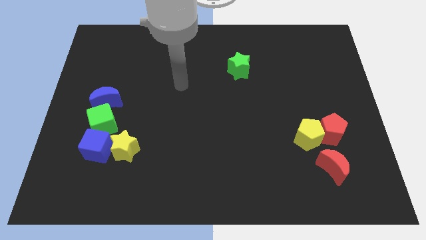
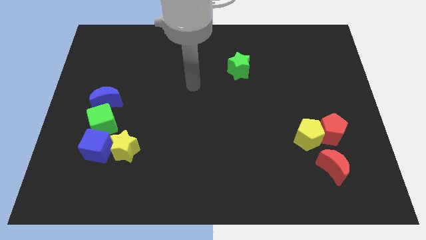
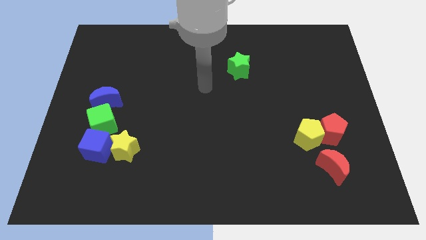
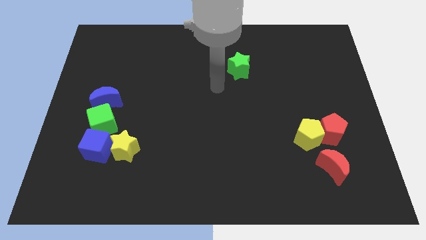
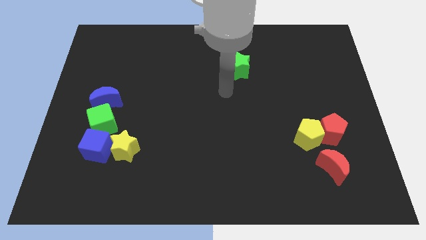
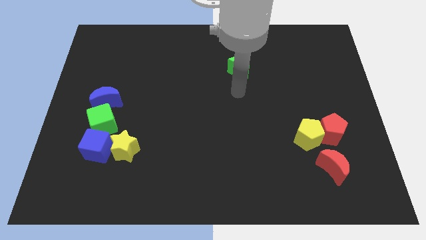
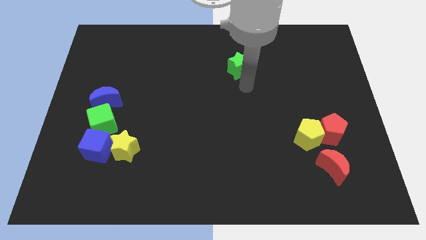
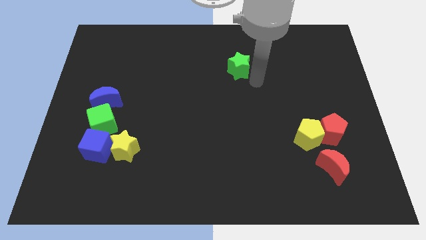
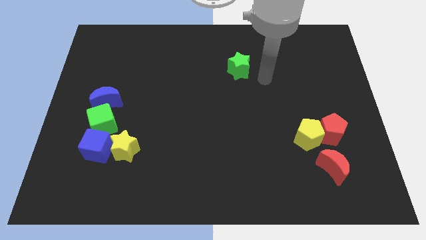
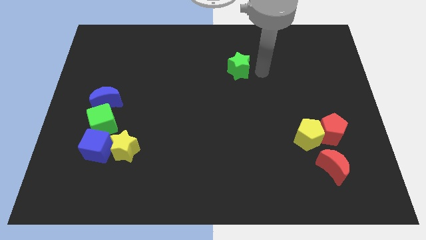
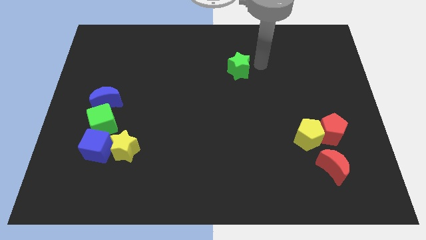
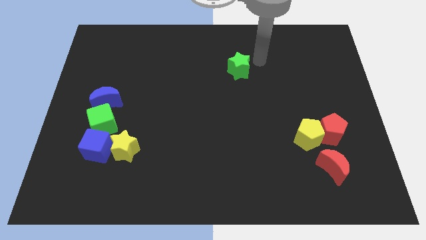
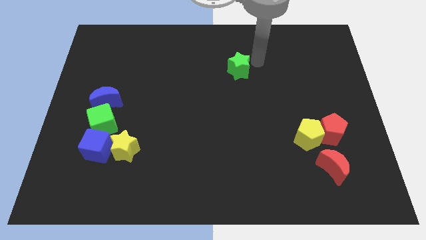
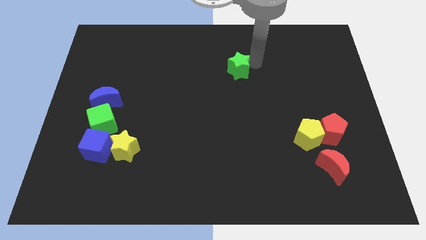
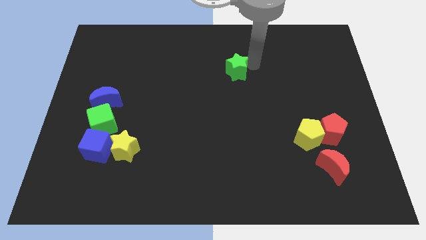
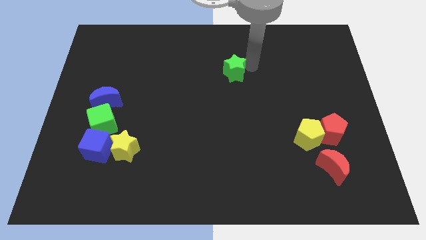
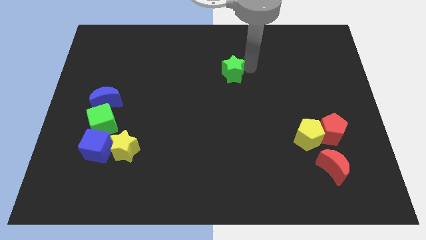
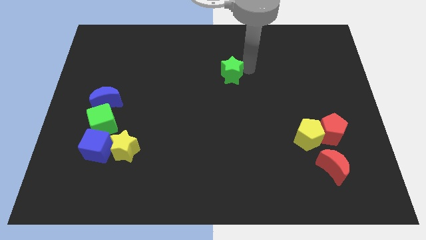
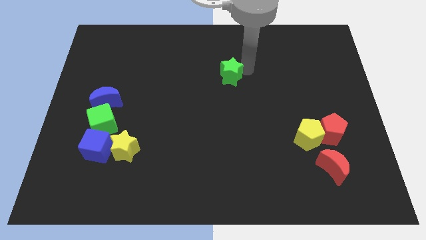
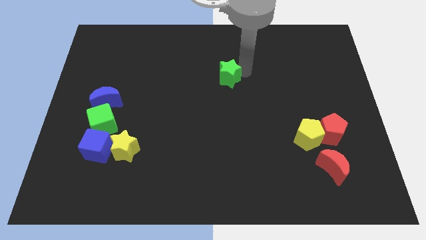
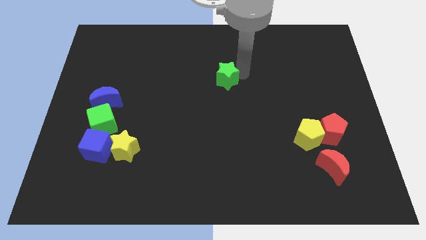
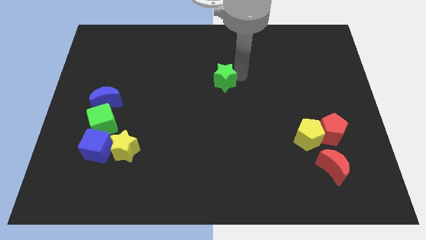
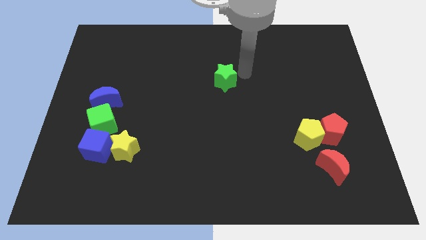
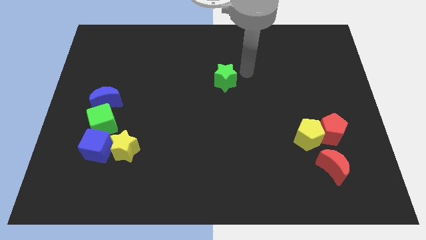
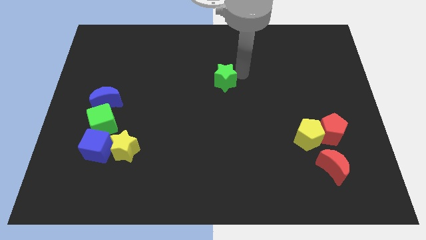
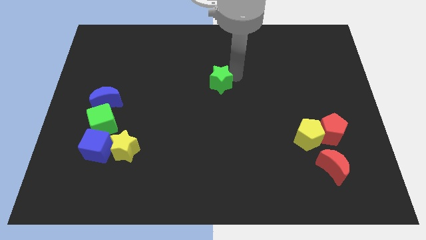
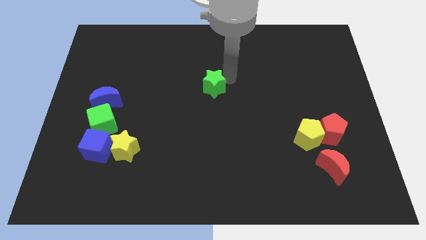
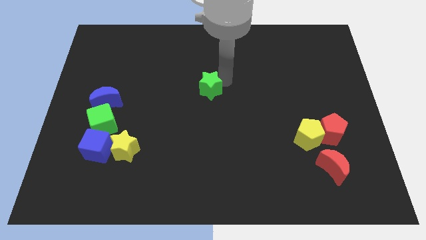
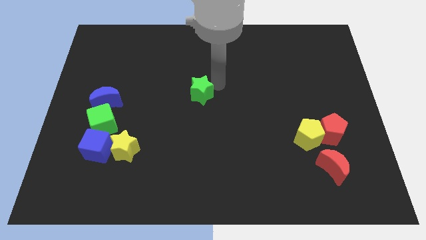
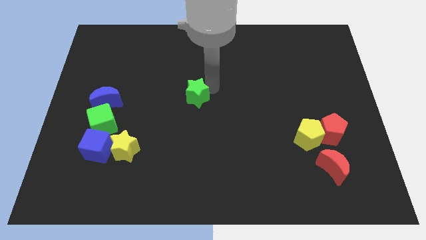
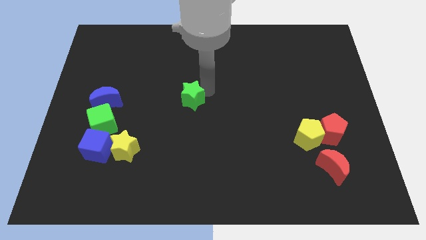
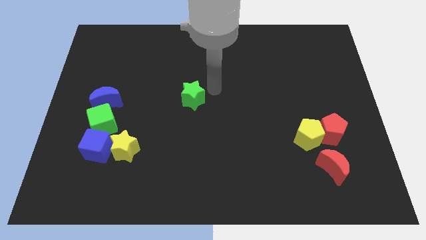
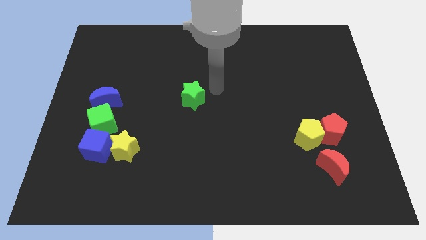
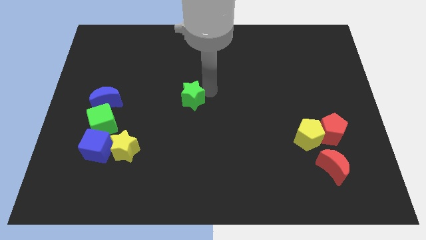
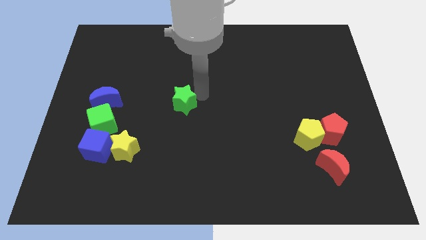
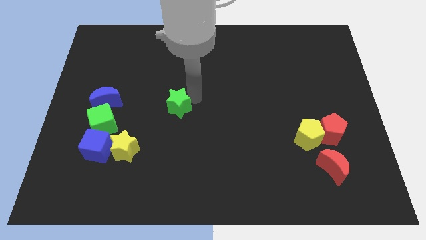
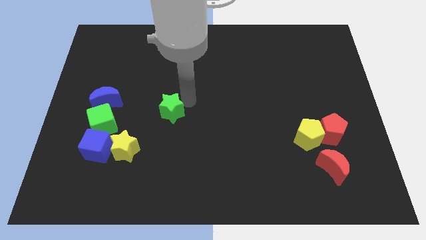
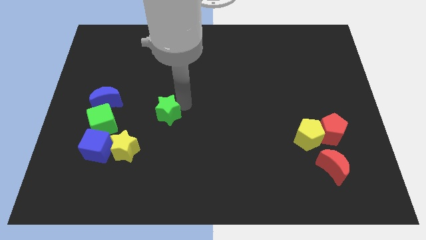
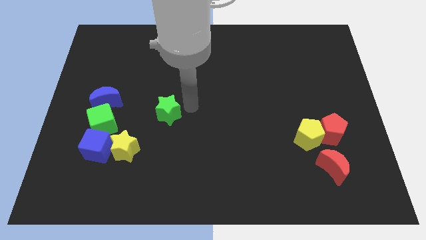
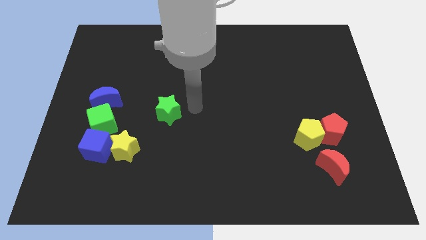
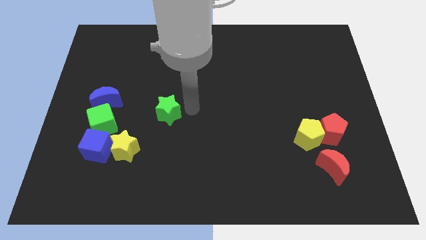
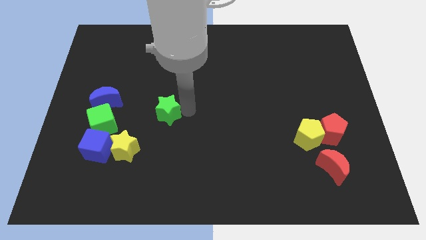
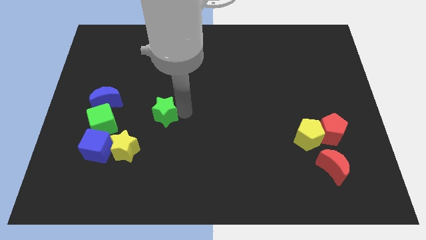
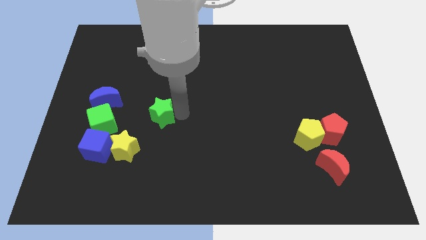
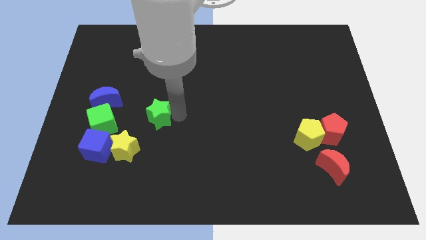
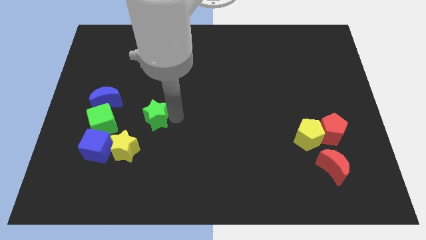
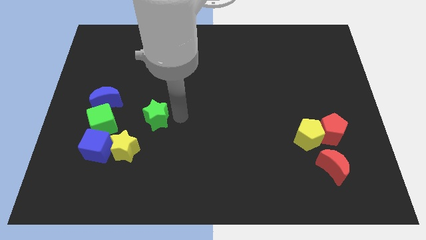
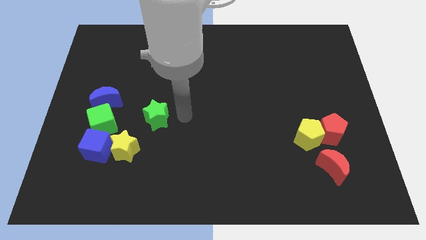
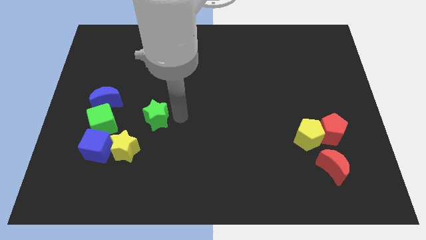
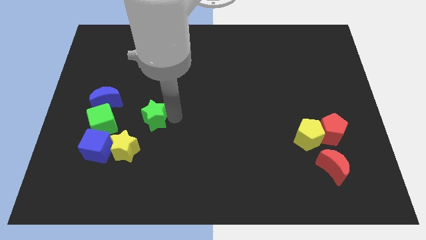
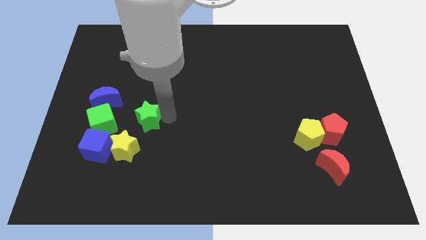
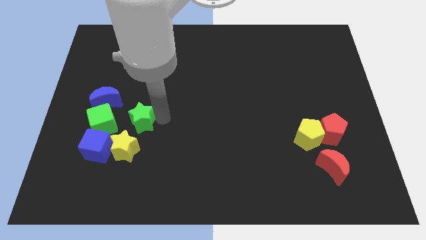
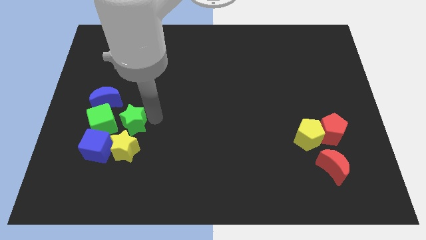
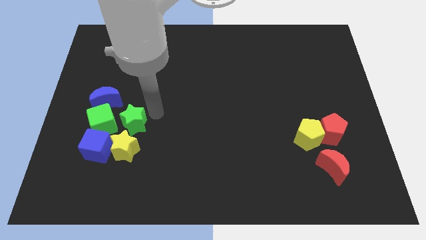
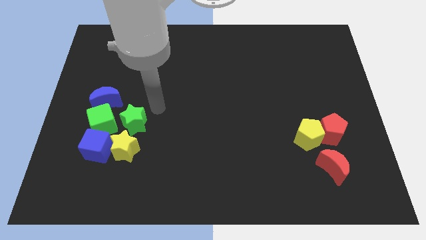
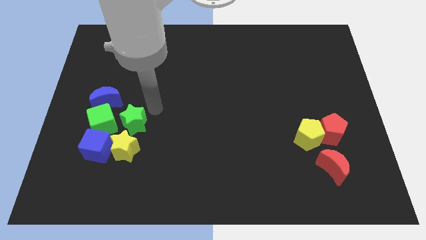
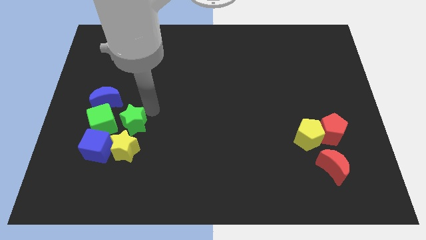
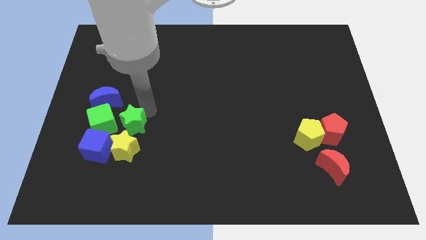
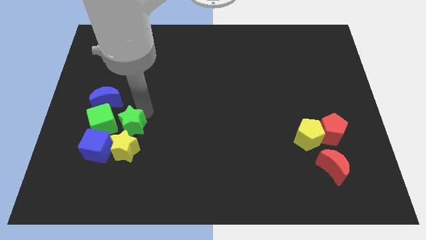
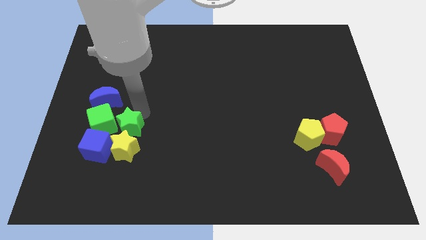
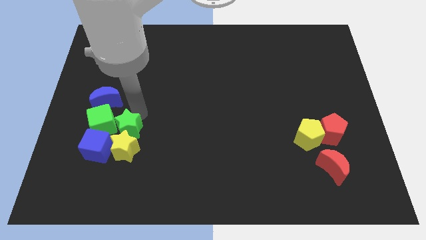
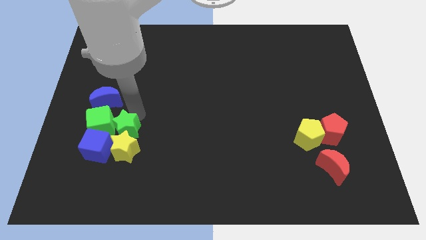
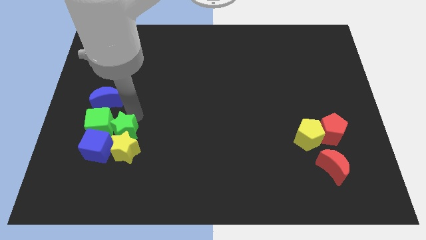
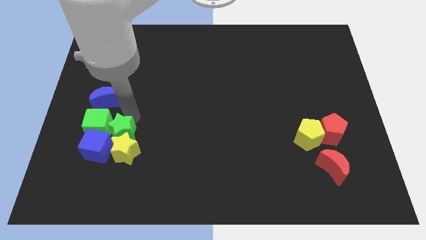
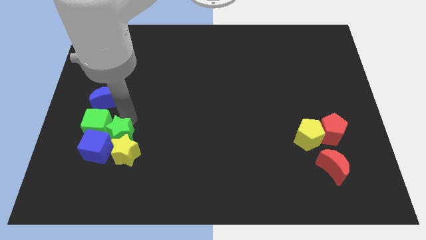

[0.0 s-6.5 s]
move the green star towards the blue cube

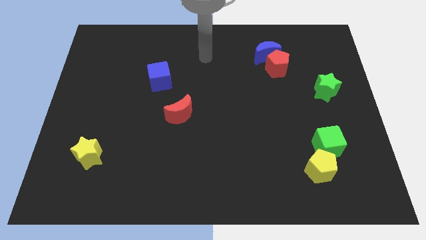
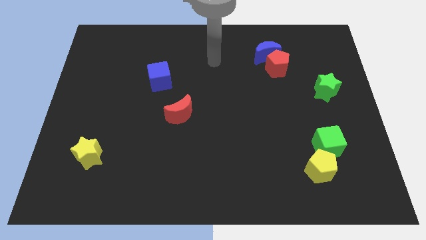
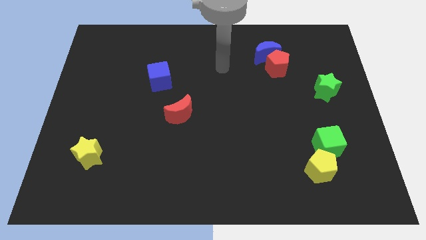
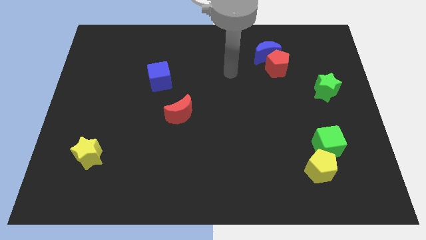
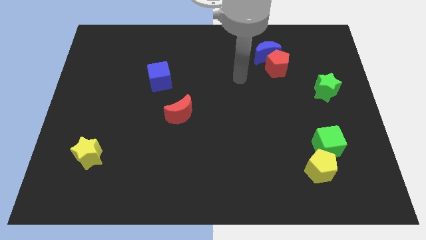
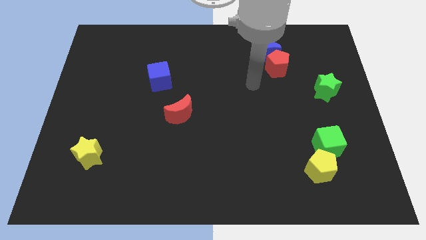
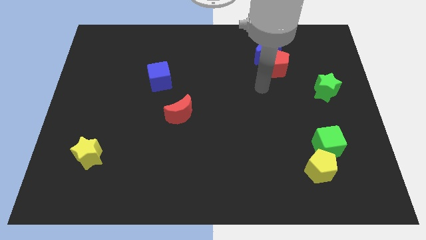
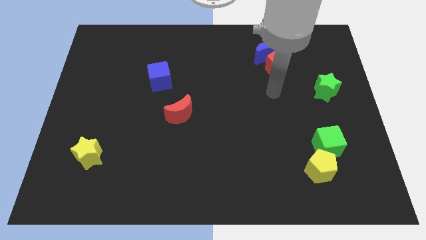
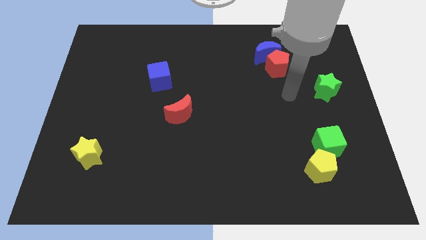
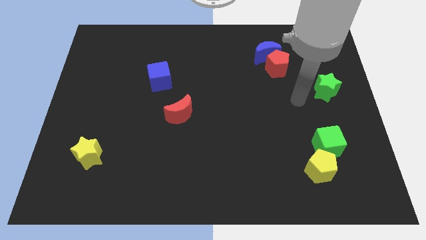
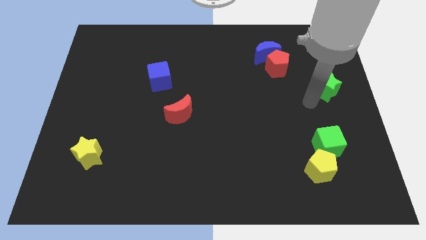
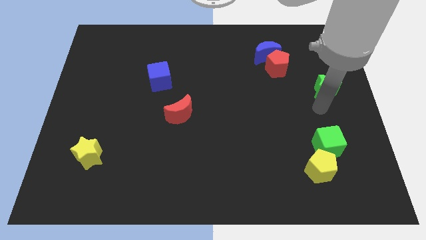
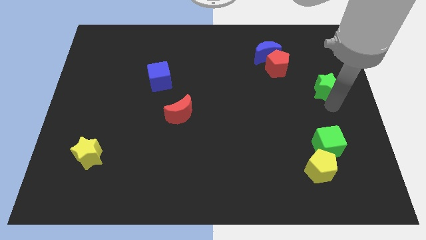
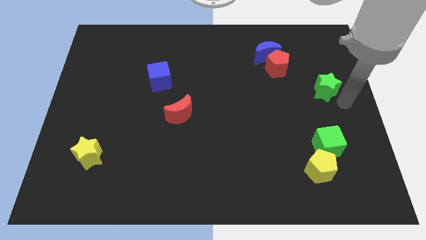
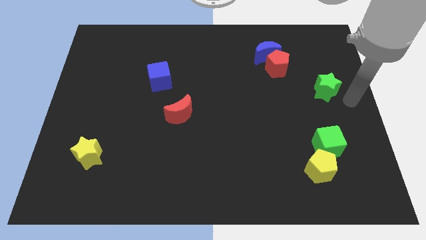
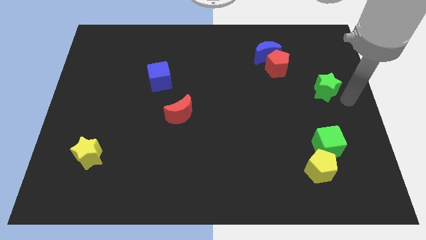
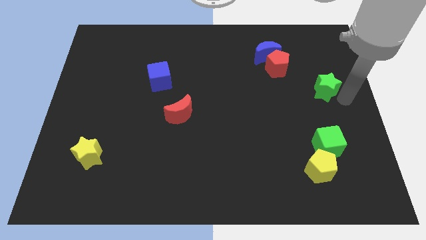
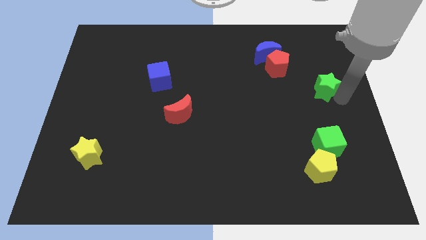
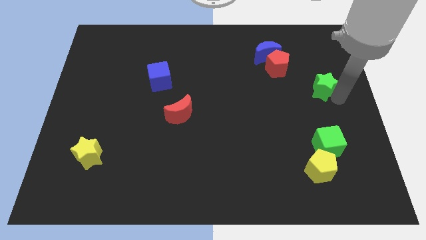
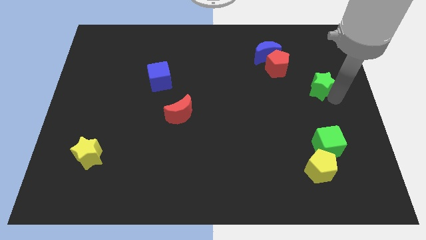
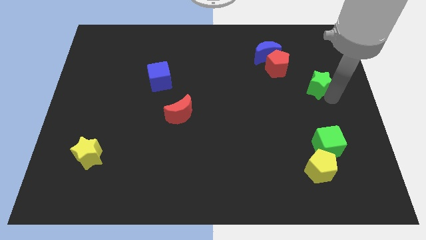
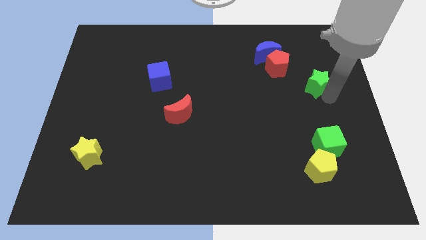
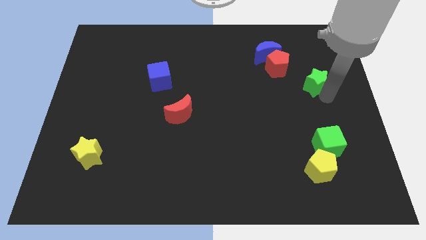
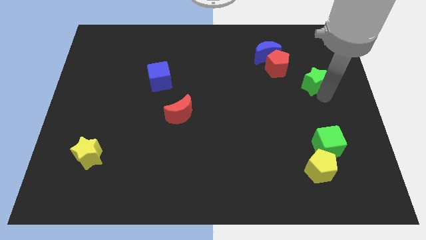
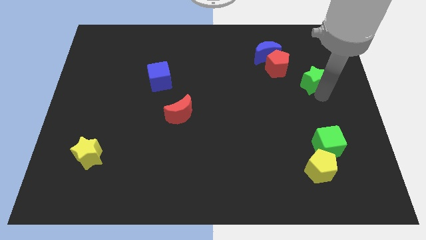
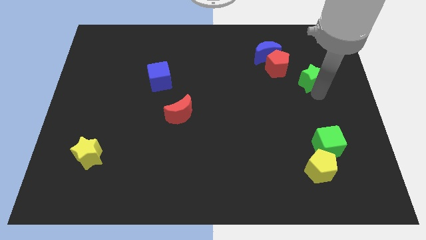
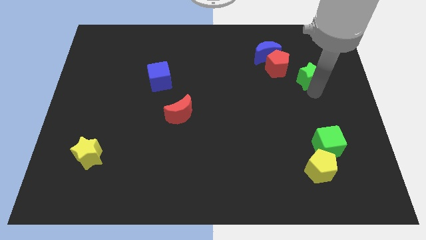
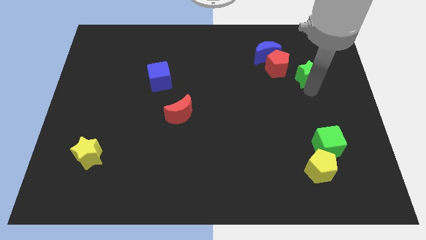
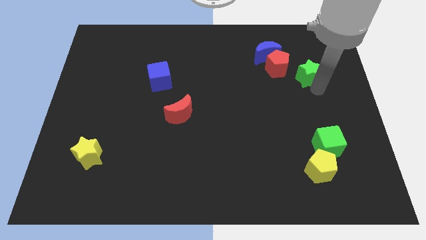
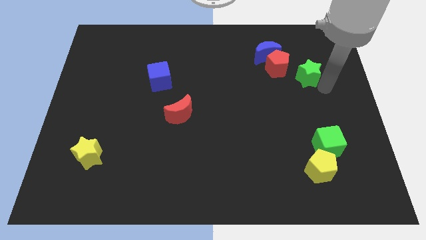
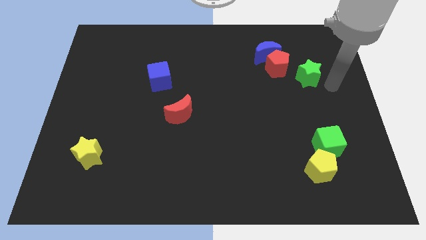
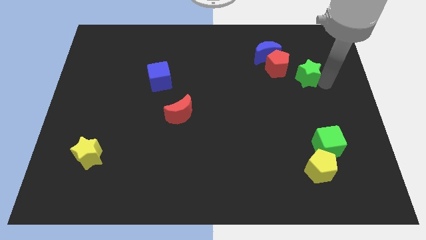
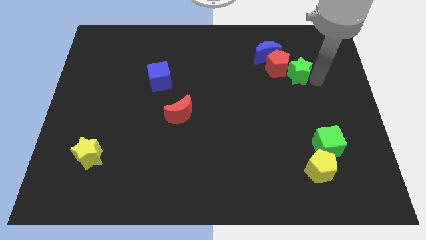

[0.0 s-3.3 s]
push the green star to the red pentagon
